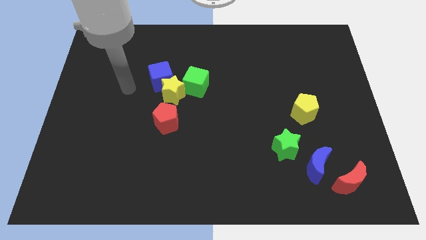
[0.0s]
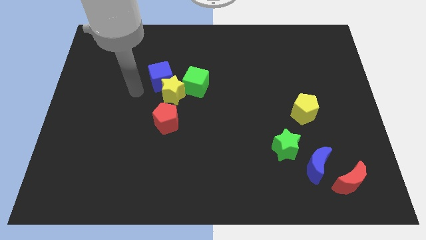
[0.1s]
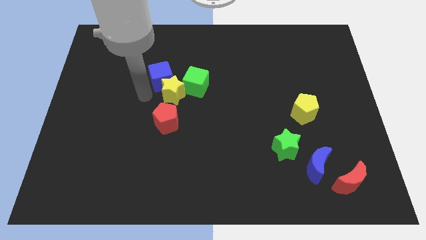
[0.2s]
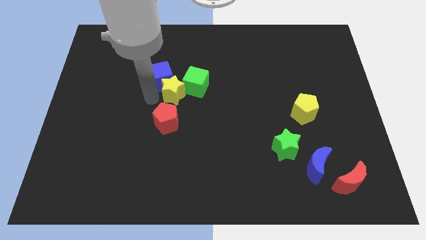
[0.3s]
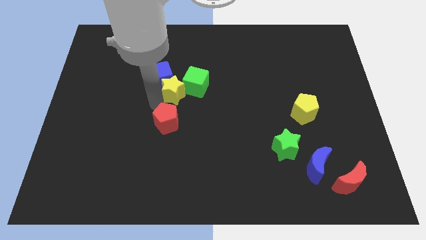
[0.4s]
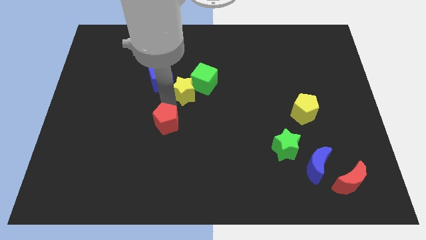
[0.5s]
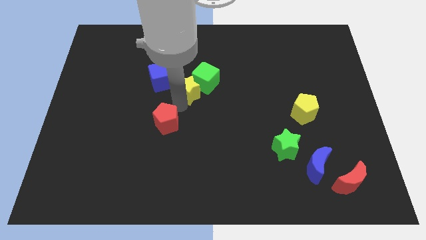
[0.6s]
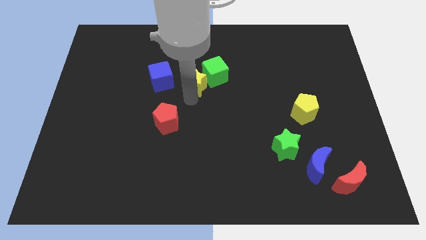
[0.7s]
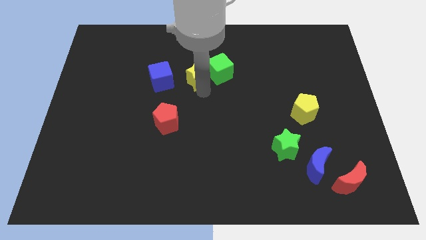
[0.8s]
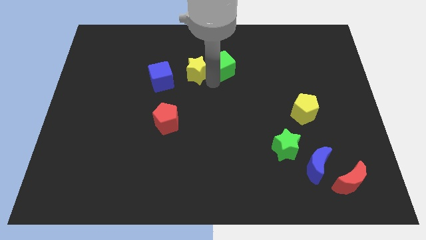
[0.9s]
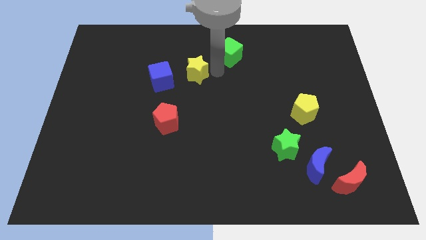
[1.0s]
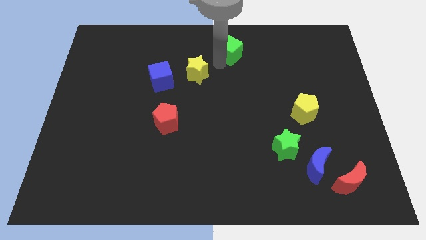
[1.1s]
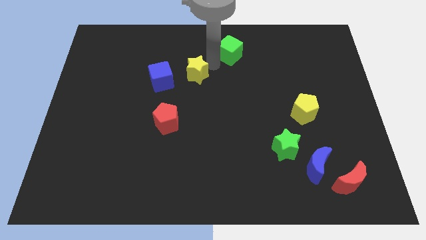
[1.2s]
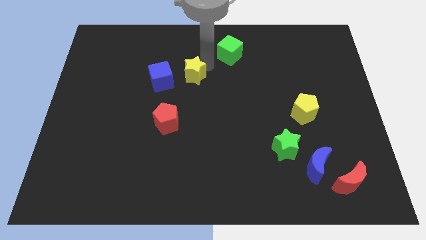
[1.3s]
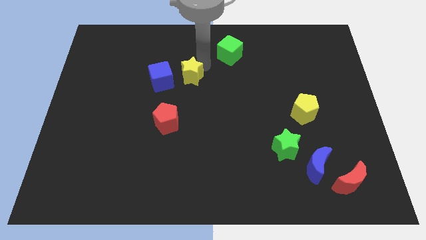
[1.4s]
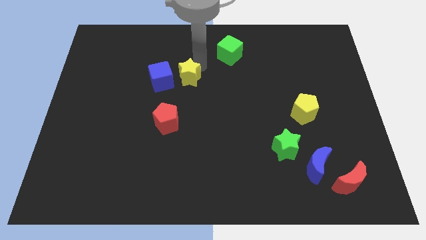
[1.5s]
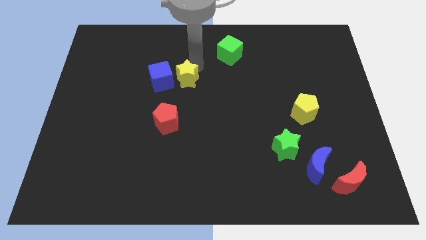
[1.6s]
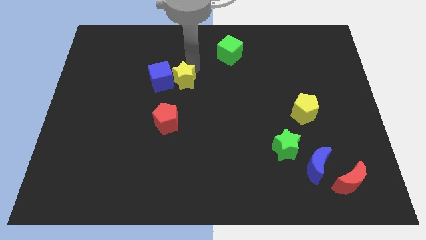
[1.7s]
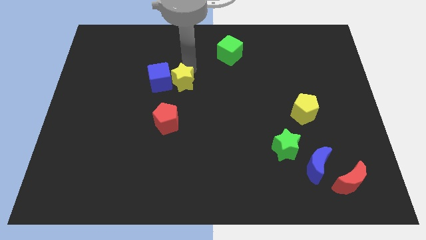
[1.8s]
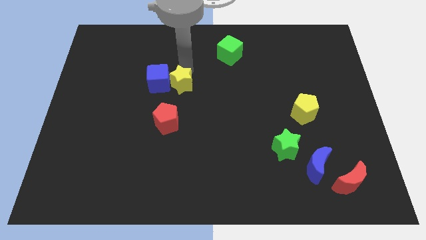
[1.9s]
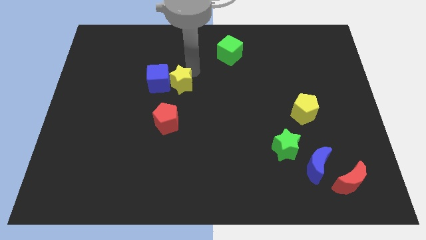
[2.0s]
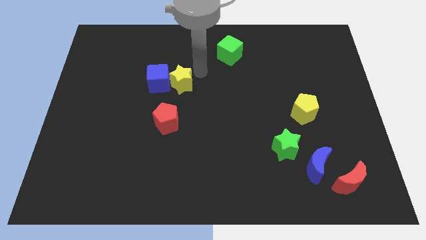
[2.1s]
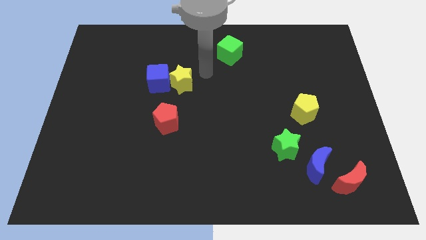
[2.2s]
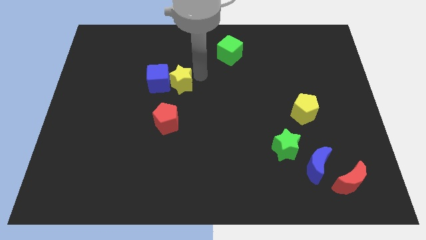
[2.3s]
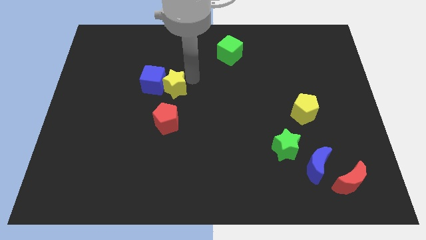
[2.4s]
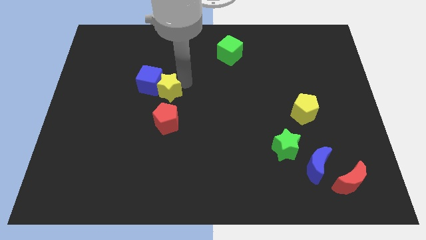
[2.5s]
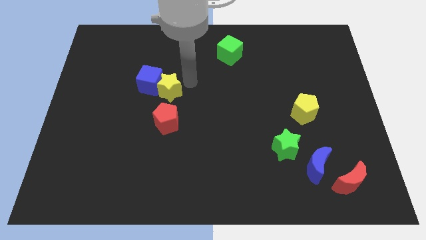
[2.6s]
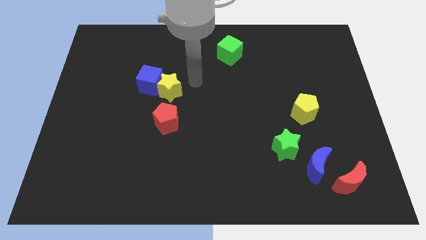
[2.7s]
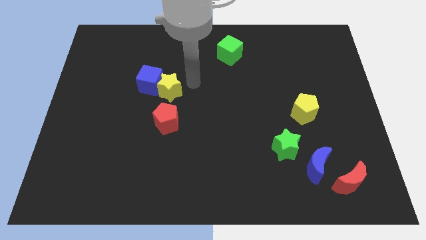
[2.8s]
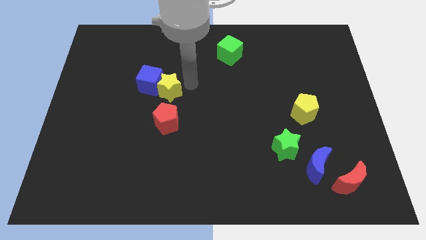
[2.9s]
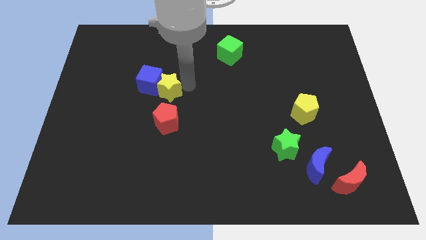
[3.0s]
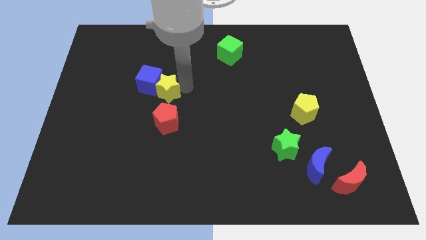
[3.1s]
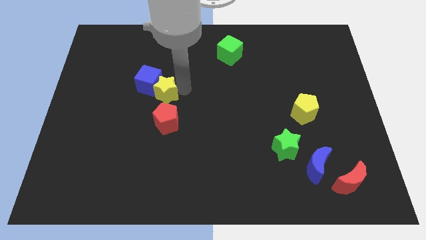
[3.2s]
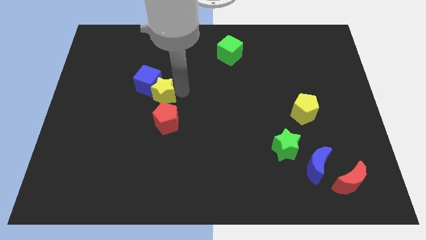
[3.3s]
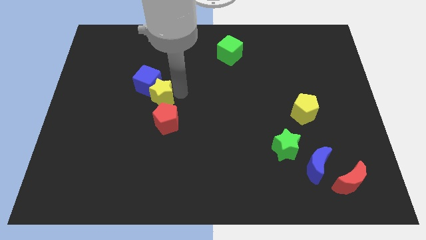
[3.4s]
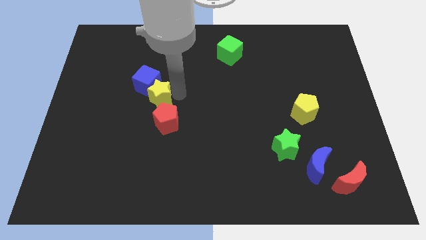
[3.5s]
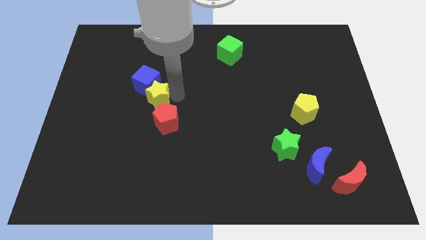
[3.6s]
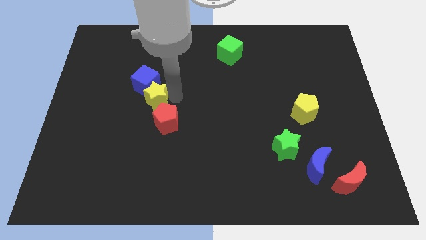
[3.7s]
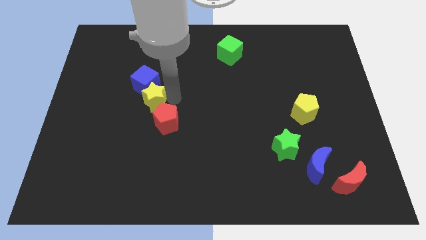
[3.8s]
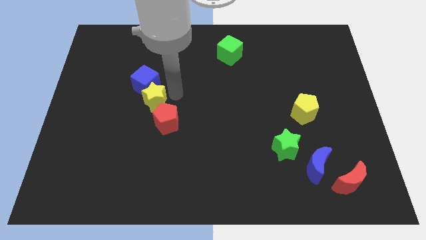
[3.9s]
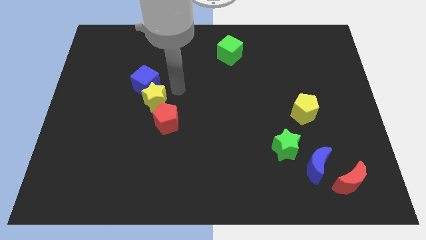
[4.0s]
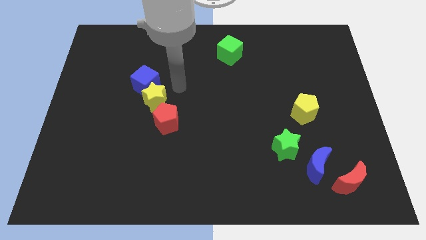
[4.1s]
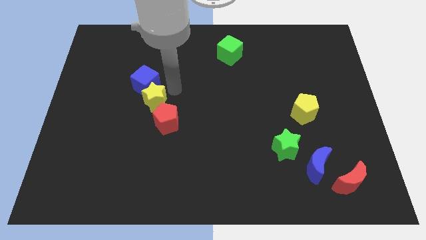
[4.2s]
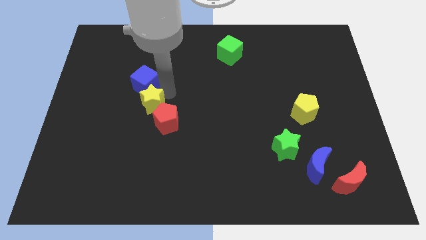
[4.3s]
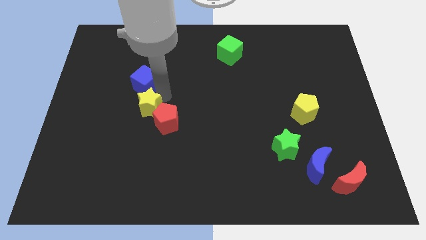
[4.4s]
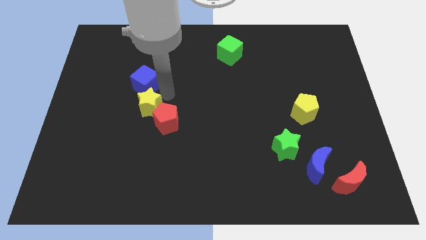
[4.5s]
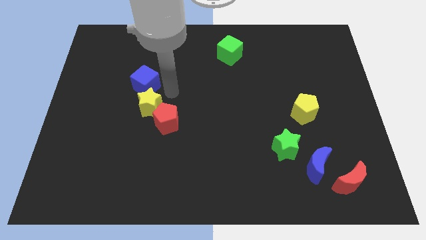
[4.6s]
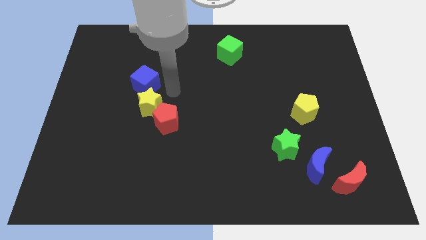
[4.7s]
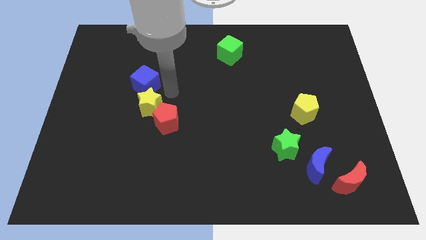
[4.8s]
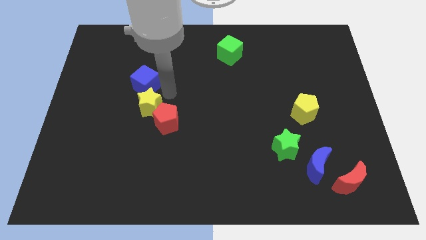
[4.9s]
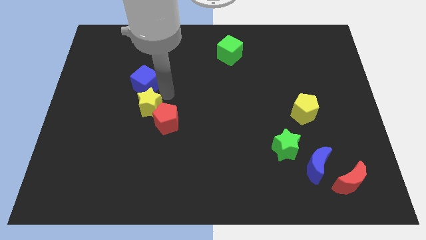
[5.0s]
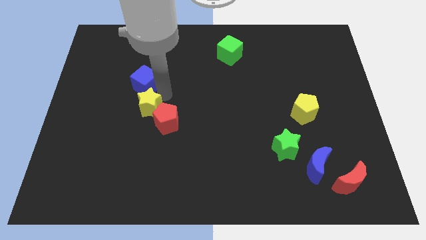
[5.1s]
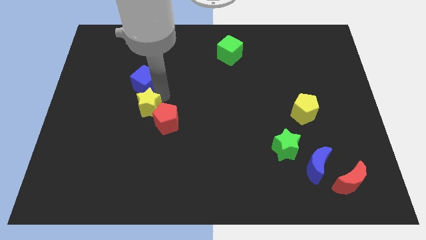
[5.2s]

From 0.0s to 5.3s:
separate the yellow star from the blue cube, green cube, and red pentagon

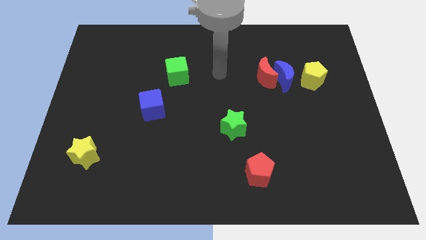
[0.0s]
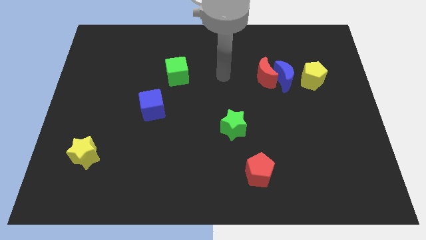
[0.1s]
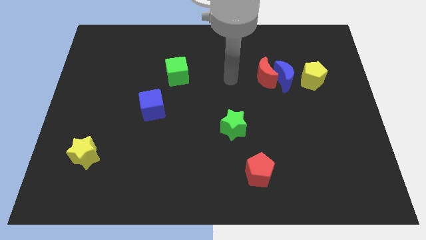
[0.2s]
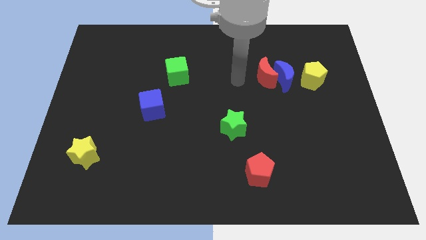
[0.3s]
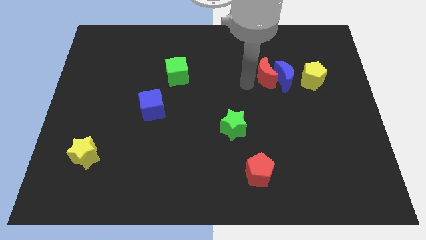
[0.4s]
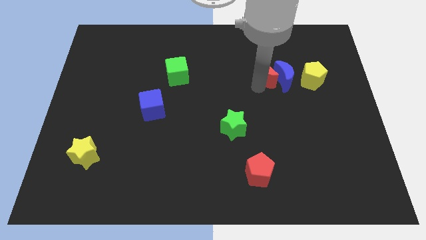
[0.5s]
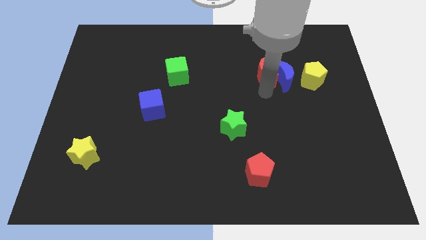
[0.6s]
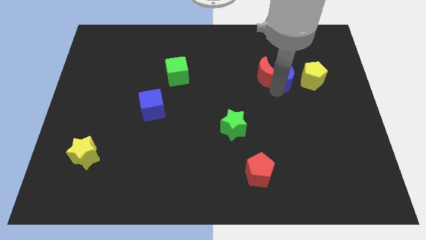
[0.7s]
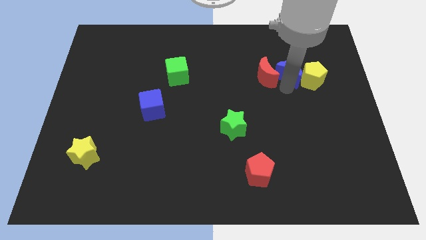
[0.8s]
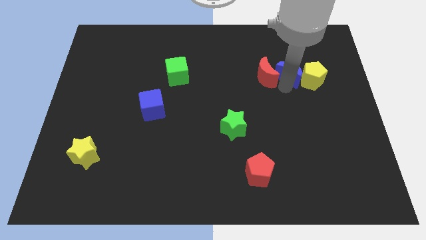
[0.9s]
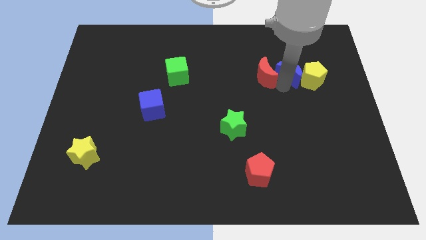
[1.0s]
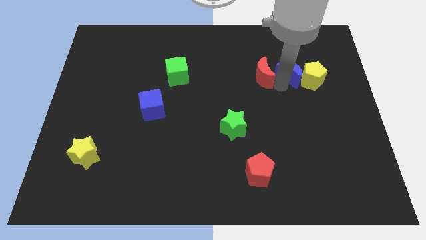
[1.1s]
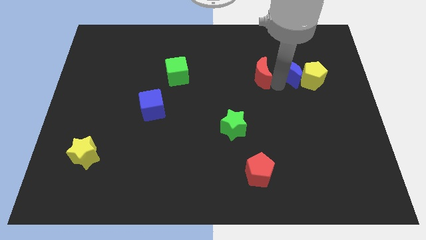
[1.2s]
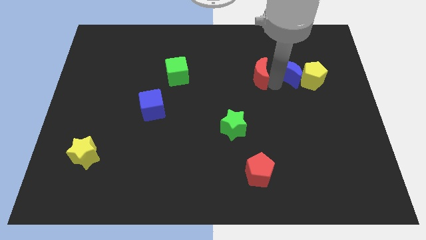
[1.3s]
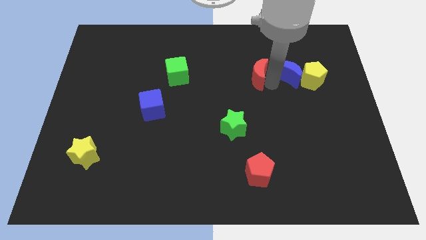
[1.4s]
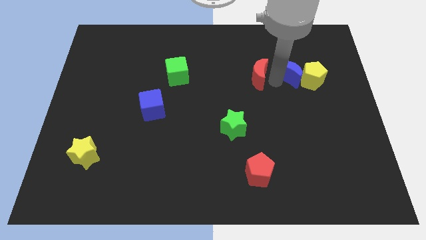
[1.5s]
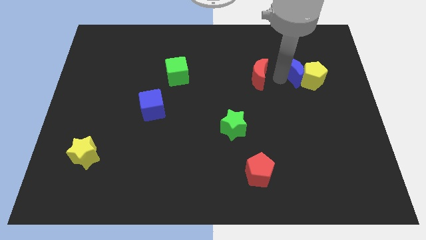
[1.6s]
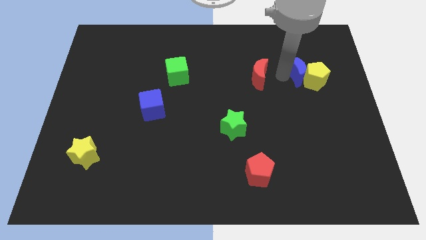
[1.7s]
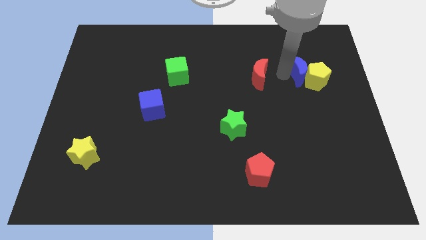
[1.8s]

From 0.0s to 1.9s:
separate the red moon from the blue moon

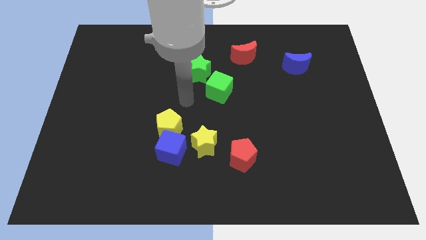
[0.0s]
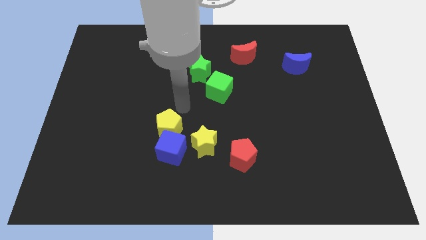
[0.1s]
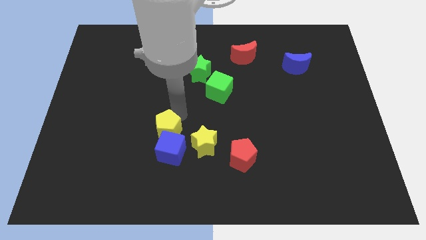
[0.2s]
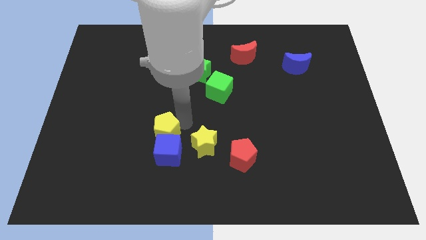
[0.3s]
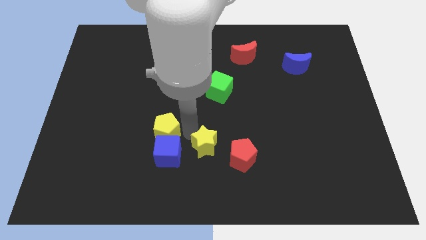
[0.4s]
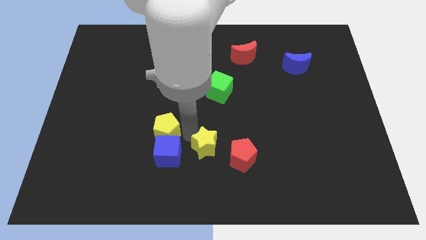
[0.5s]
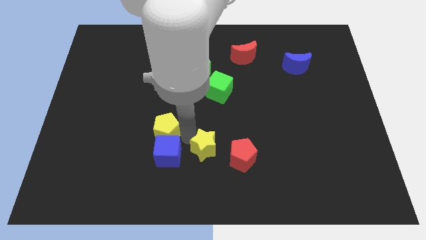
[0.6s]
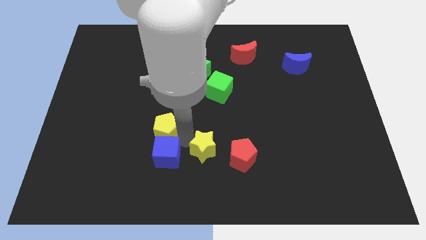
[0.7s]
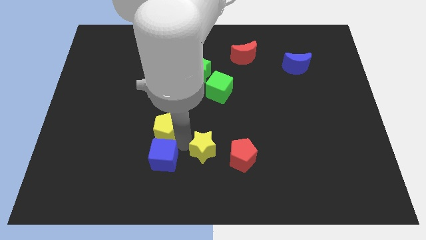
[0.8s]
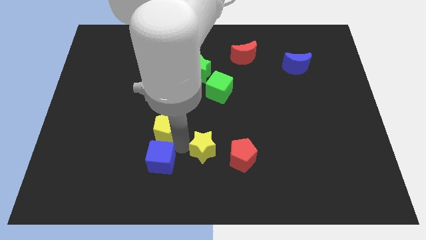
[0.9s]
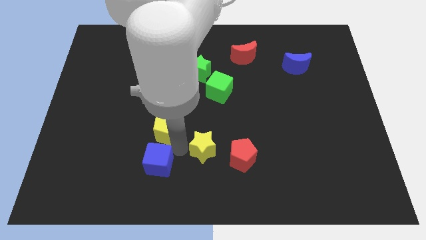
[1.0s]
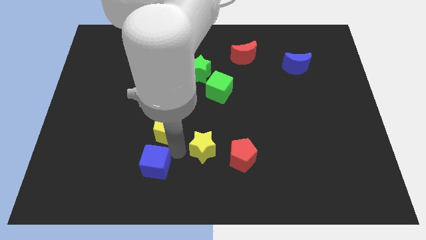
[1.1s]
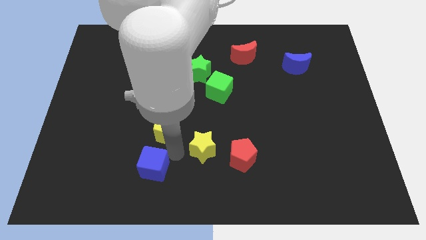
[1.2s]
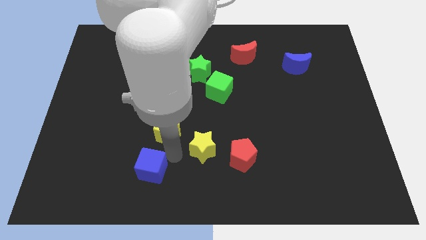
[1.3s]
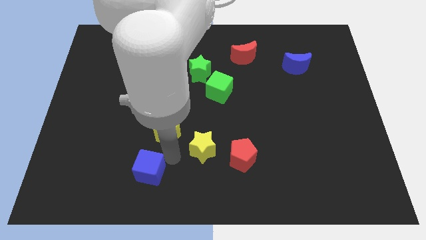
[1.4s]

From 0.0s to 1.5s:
move the blue cube away from the yellow pentagon and yellow star

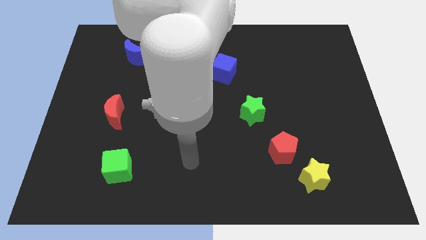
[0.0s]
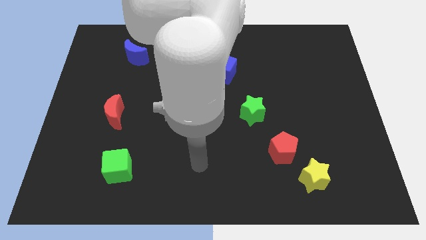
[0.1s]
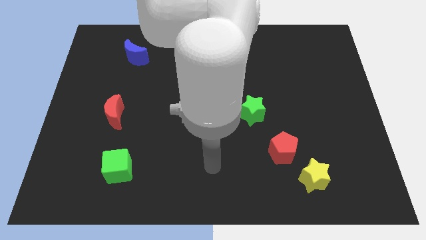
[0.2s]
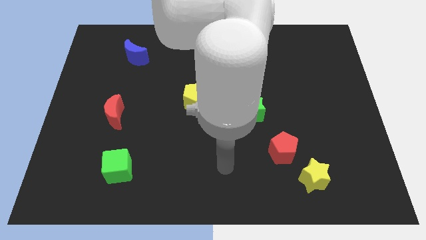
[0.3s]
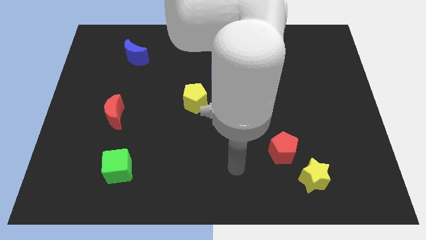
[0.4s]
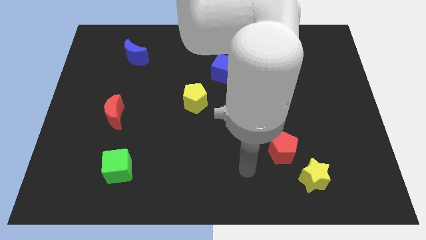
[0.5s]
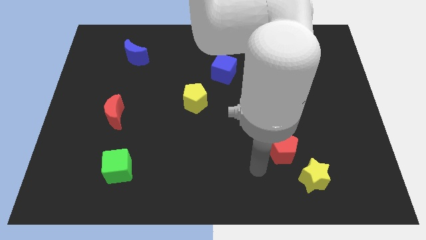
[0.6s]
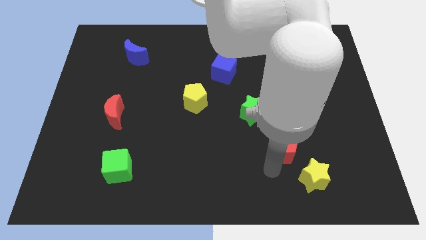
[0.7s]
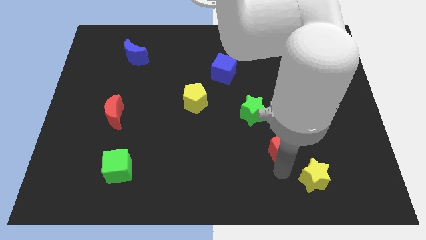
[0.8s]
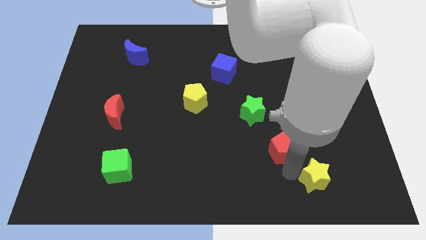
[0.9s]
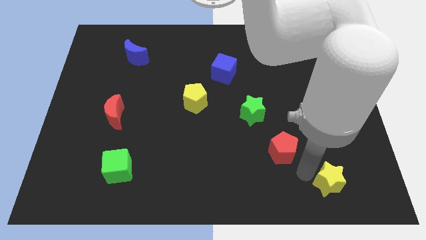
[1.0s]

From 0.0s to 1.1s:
move the red pentagon away from the yellow star
